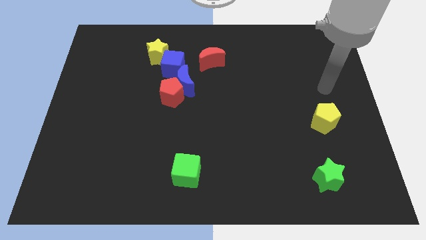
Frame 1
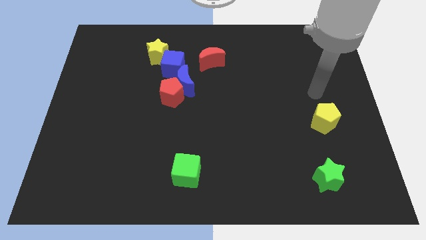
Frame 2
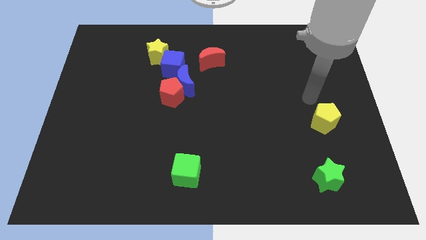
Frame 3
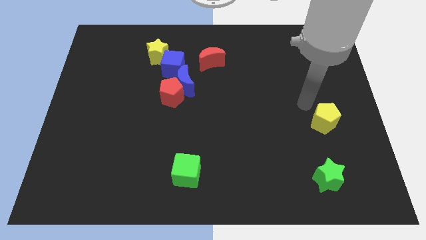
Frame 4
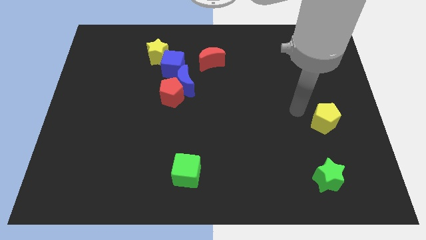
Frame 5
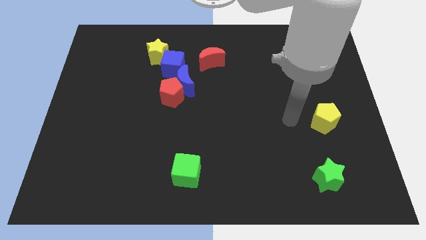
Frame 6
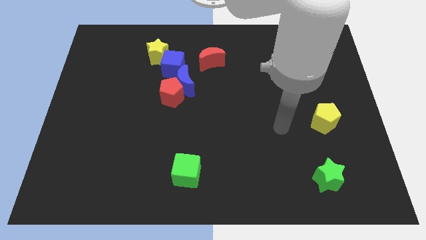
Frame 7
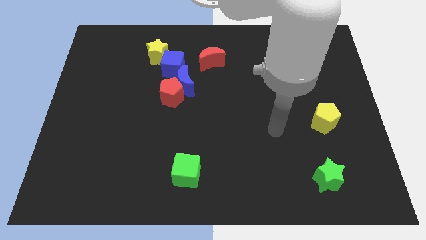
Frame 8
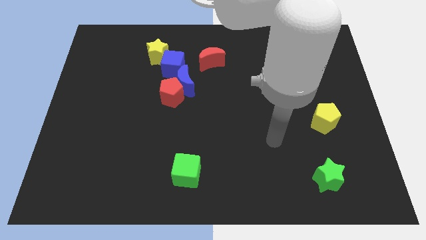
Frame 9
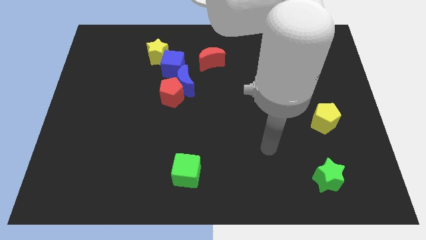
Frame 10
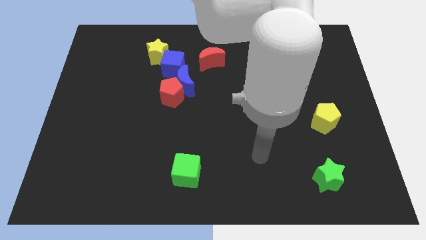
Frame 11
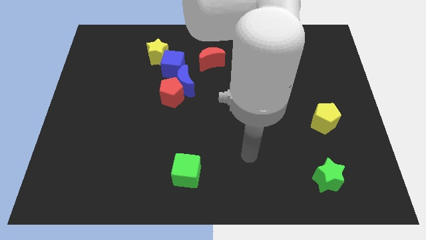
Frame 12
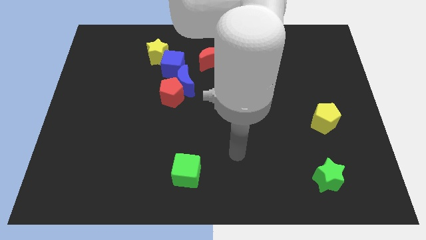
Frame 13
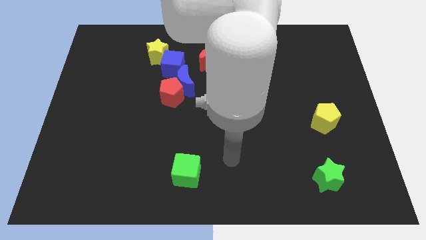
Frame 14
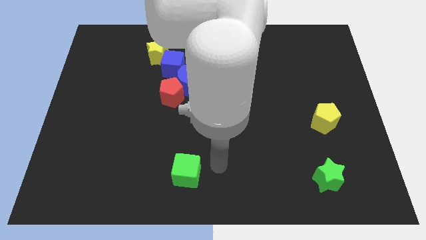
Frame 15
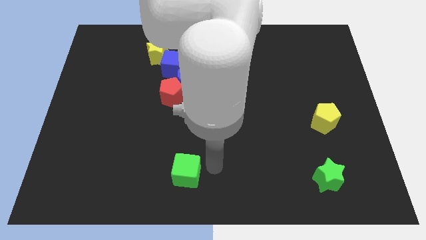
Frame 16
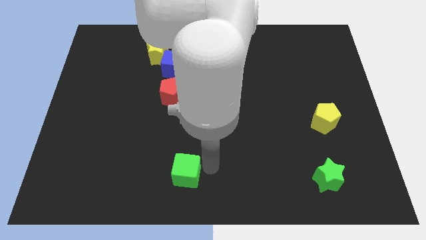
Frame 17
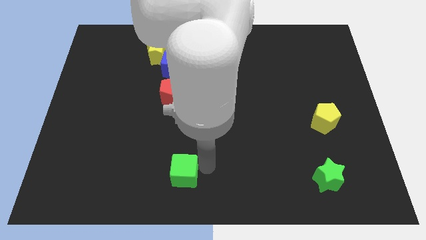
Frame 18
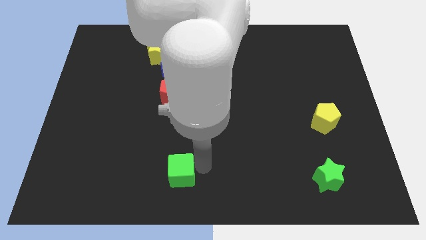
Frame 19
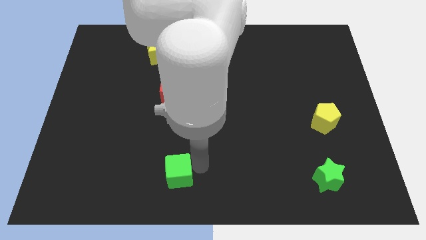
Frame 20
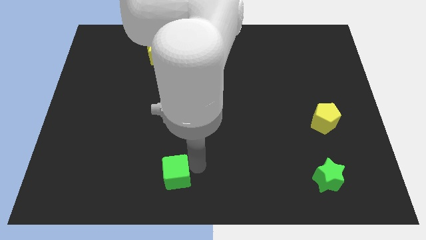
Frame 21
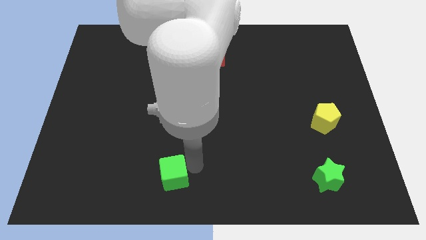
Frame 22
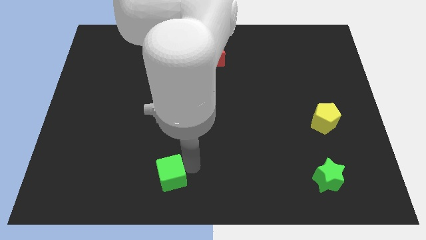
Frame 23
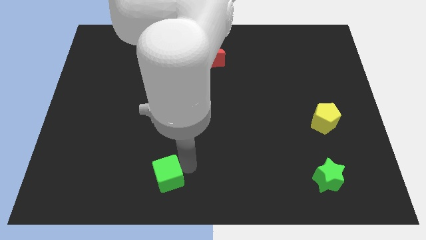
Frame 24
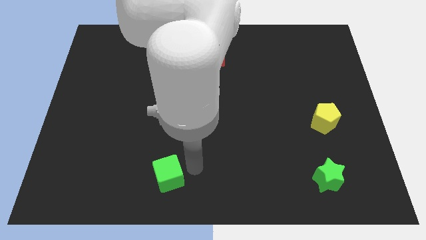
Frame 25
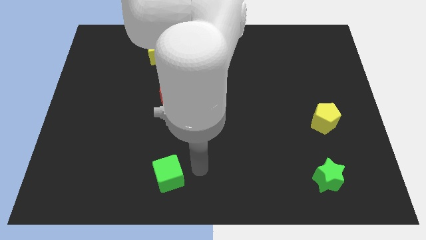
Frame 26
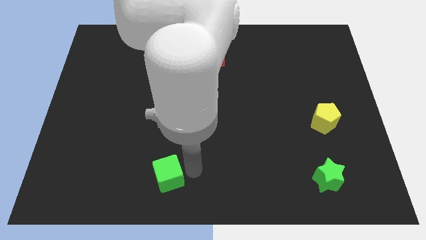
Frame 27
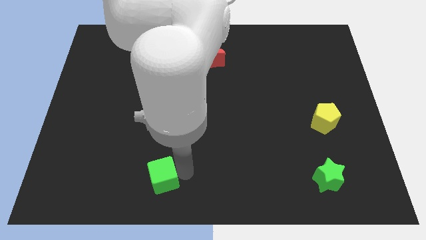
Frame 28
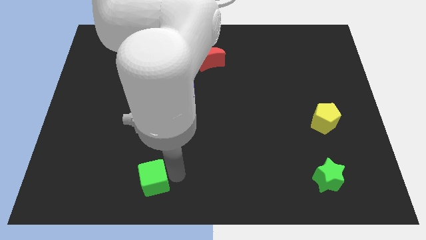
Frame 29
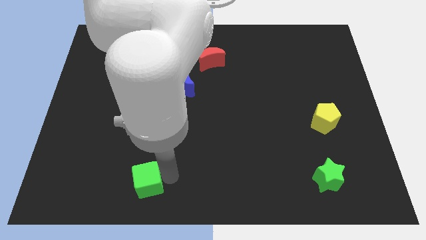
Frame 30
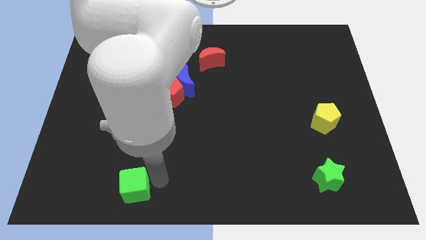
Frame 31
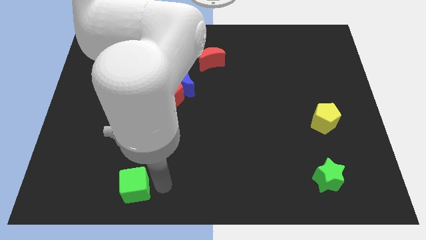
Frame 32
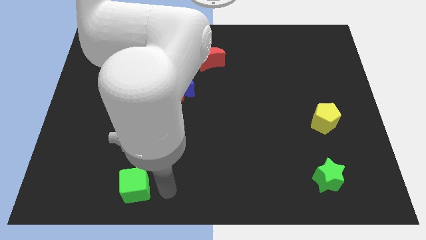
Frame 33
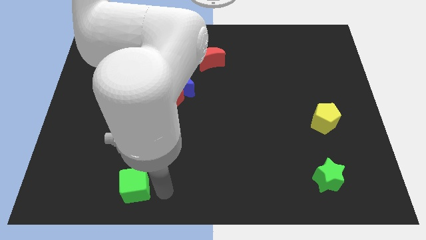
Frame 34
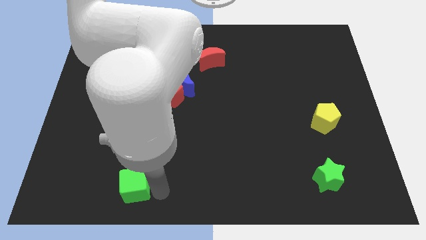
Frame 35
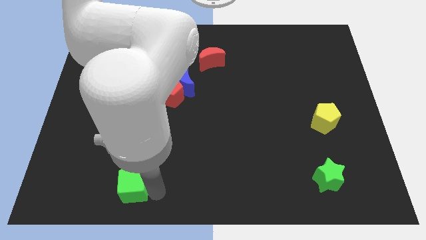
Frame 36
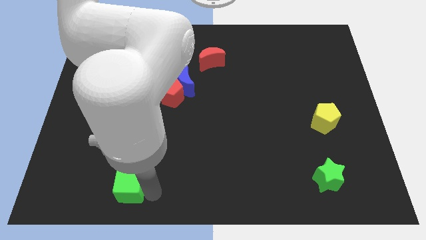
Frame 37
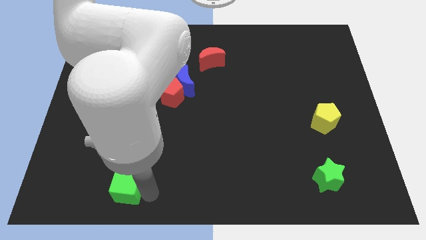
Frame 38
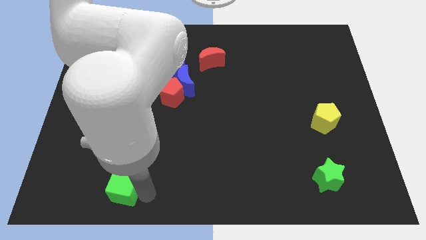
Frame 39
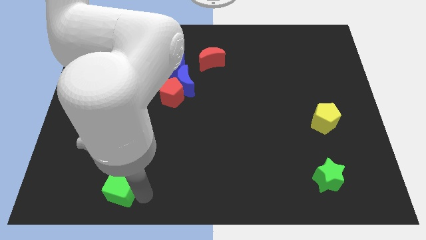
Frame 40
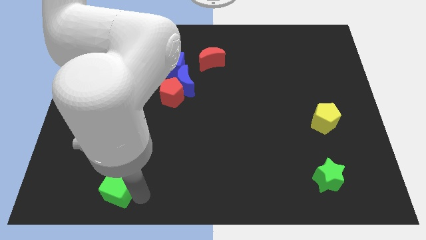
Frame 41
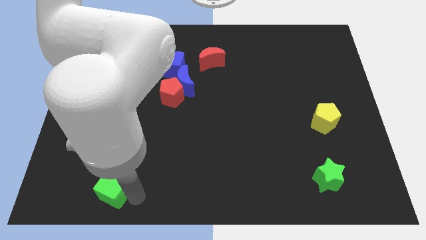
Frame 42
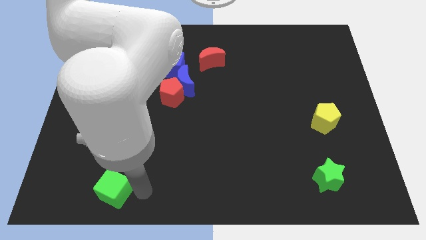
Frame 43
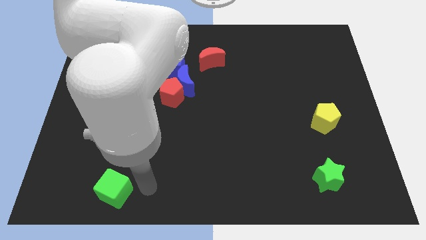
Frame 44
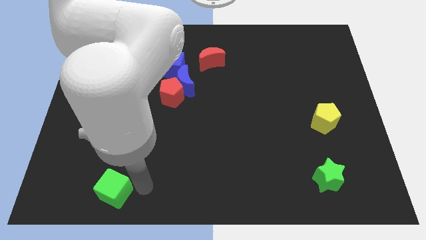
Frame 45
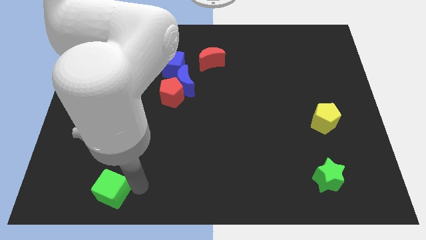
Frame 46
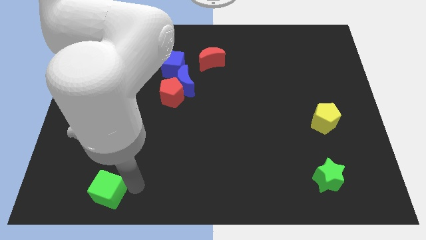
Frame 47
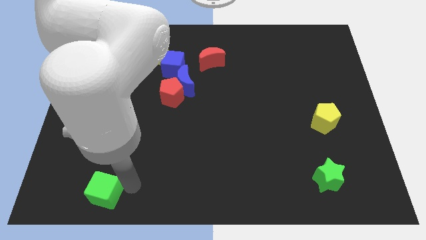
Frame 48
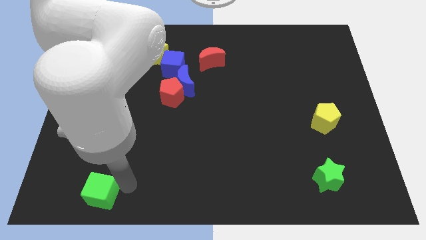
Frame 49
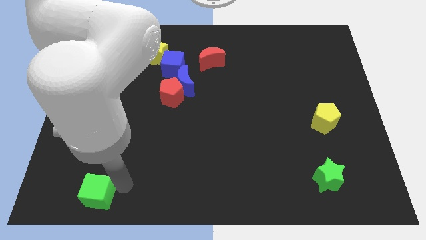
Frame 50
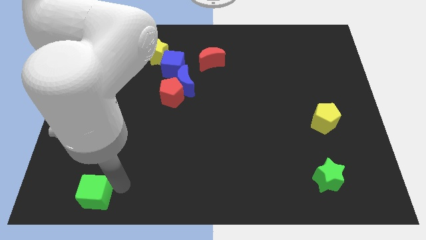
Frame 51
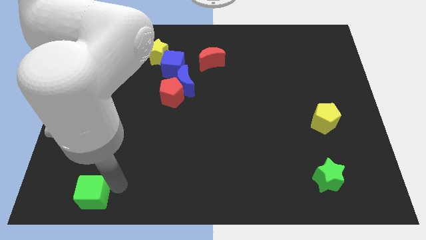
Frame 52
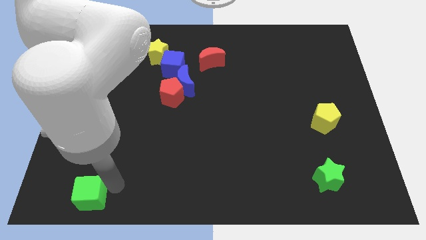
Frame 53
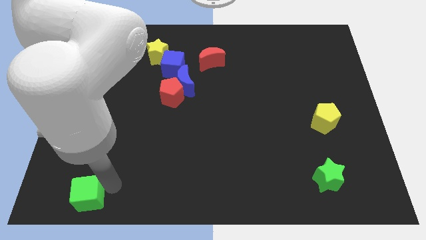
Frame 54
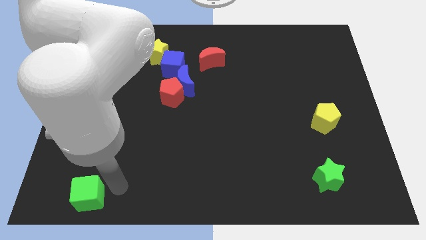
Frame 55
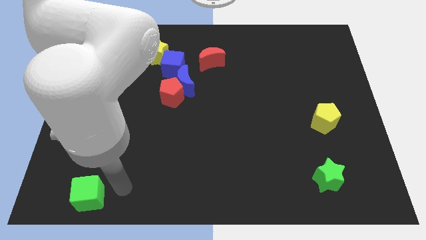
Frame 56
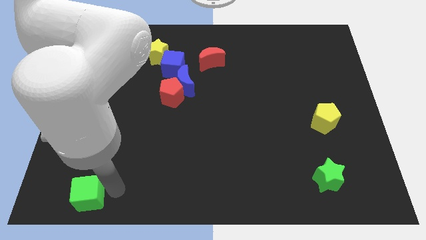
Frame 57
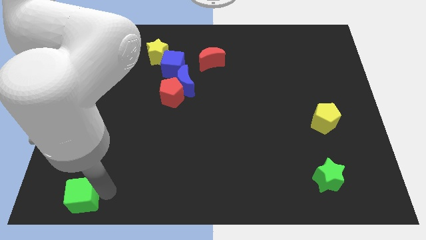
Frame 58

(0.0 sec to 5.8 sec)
move the green cube to the bottom left corner
